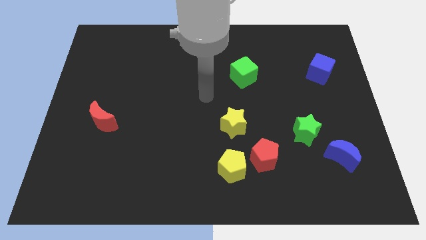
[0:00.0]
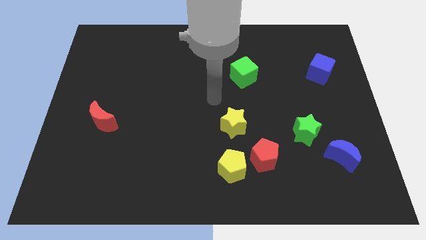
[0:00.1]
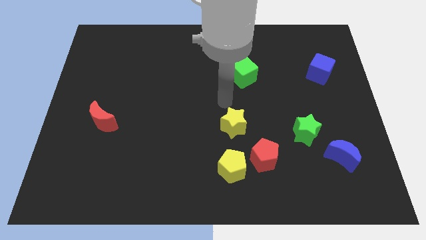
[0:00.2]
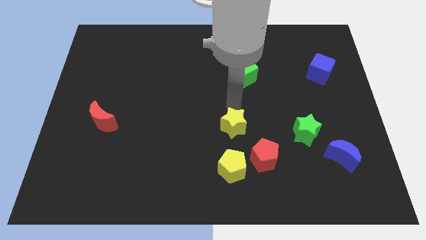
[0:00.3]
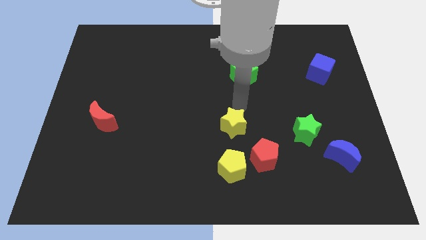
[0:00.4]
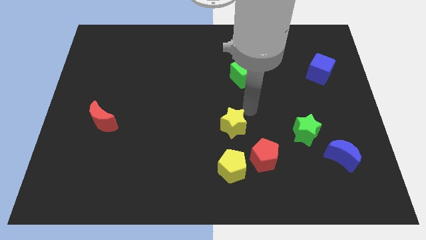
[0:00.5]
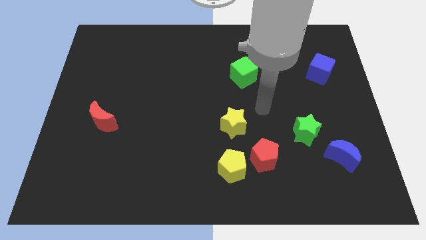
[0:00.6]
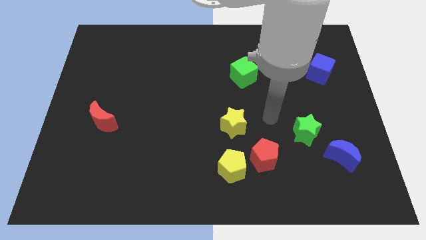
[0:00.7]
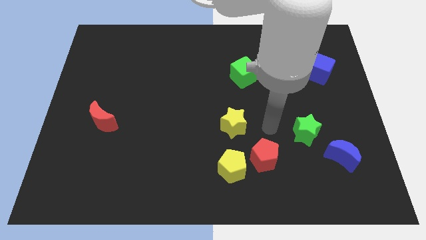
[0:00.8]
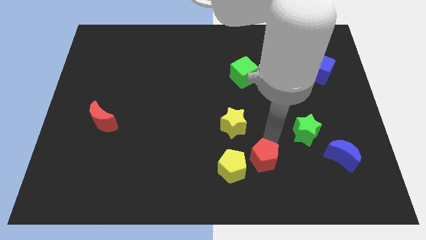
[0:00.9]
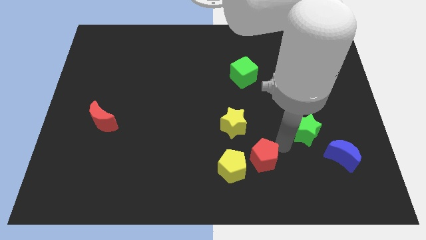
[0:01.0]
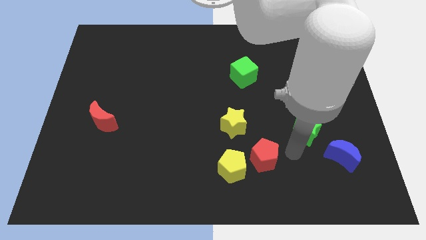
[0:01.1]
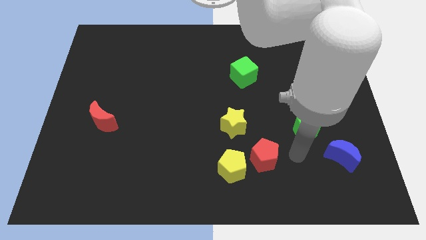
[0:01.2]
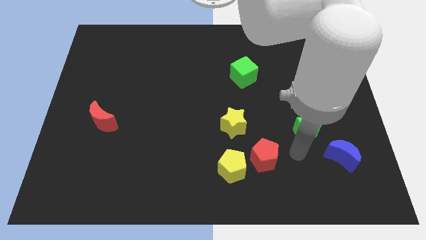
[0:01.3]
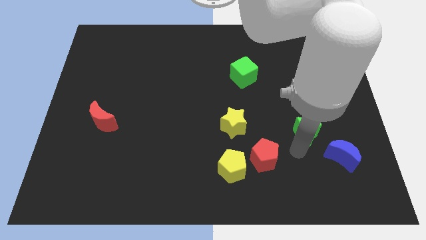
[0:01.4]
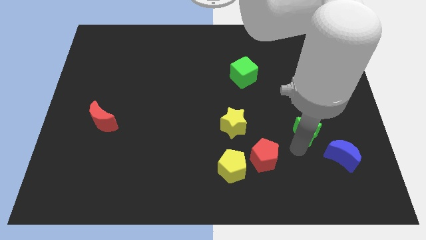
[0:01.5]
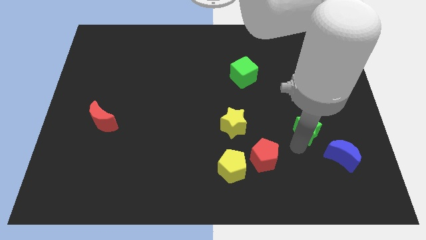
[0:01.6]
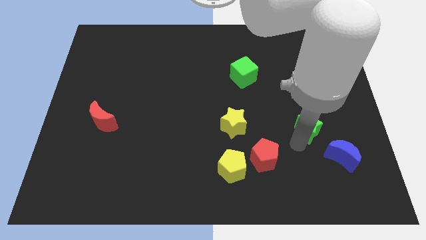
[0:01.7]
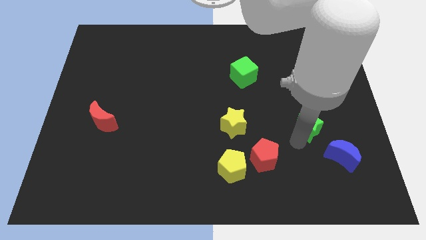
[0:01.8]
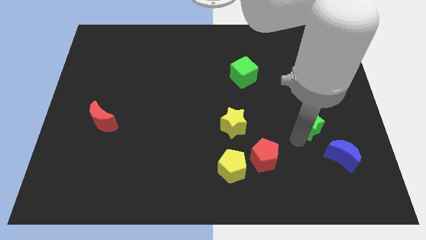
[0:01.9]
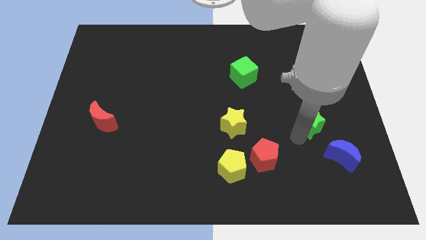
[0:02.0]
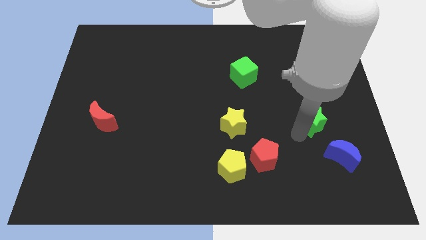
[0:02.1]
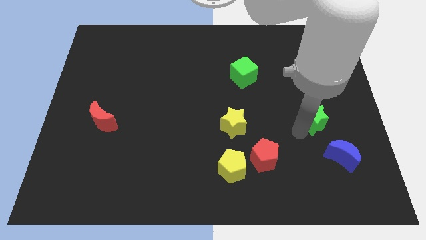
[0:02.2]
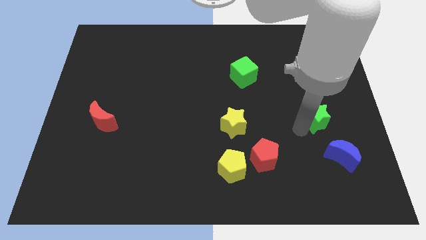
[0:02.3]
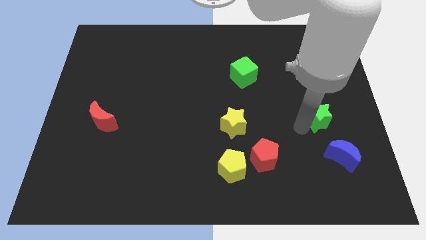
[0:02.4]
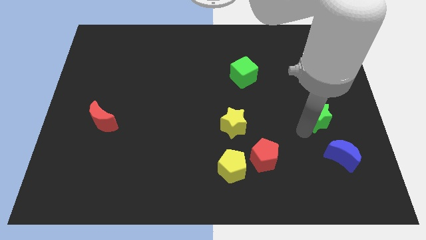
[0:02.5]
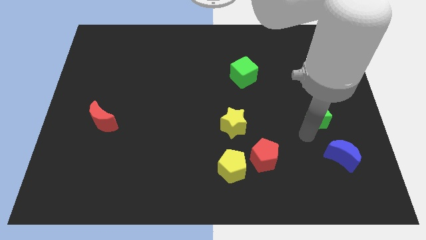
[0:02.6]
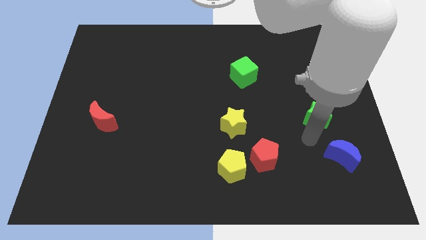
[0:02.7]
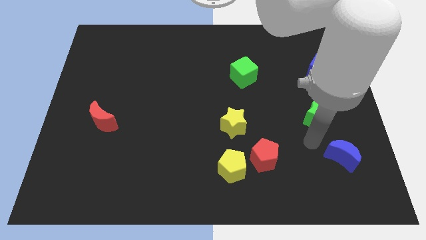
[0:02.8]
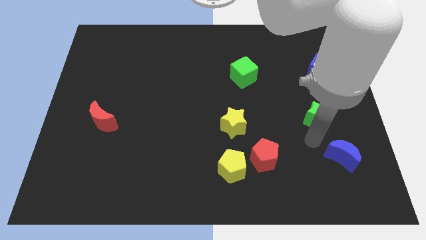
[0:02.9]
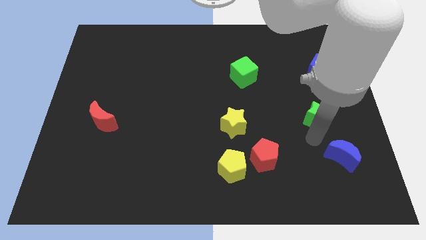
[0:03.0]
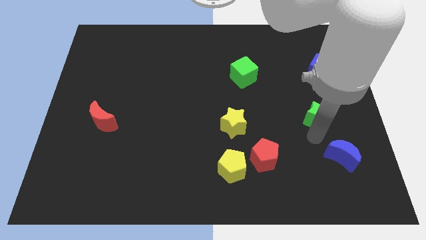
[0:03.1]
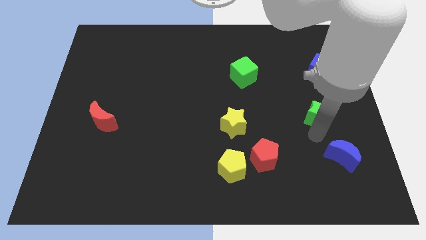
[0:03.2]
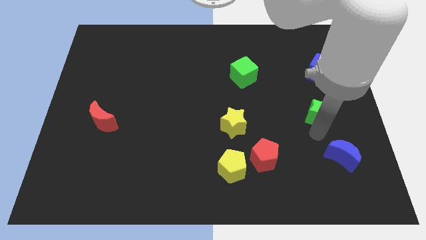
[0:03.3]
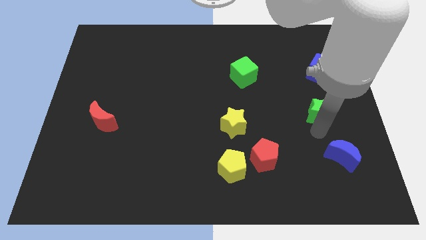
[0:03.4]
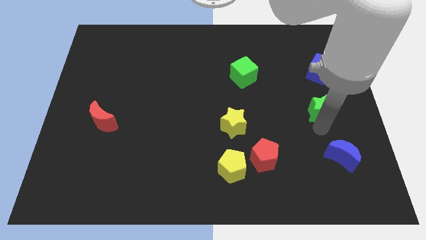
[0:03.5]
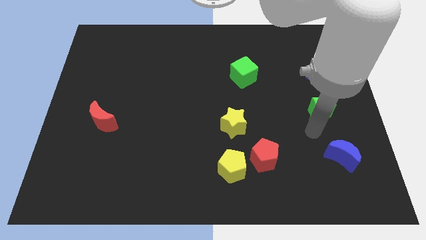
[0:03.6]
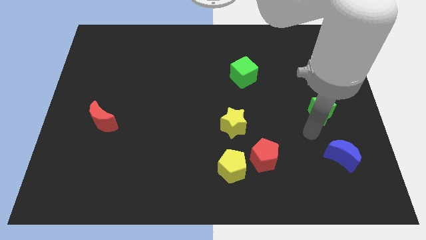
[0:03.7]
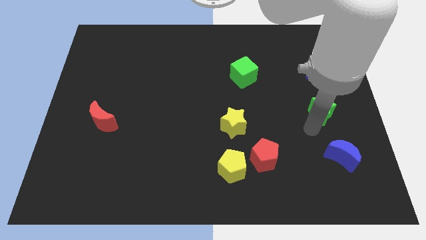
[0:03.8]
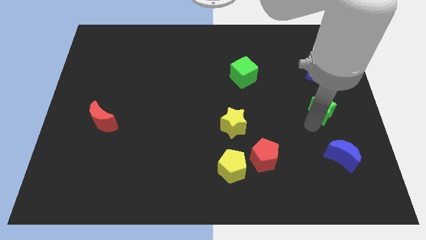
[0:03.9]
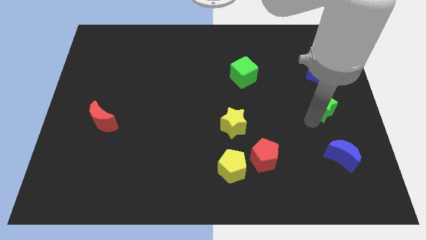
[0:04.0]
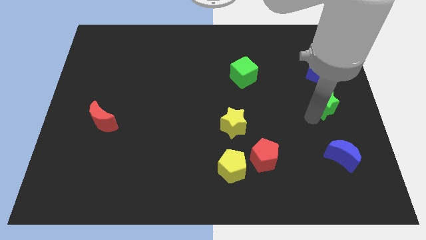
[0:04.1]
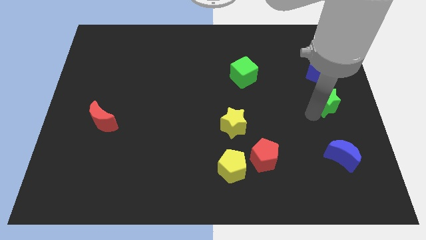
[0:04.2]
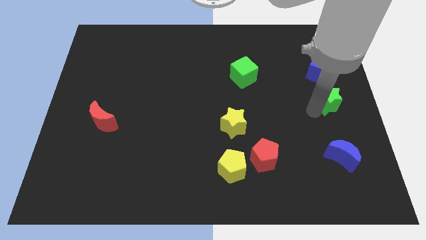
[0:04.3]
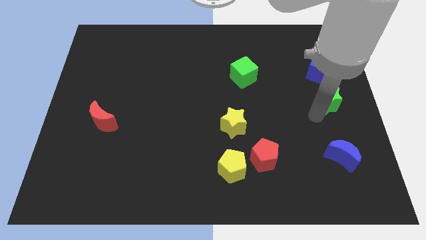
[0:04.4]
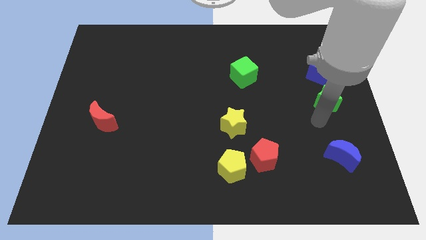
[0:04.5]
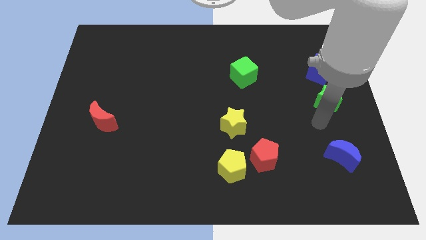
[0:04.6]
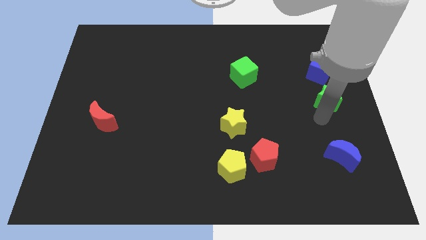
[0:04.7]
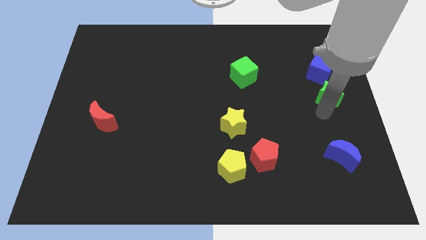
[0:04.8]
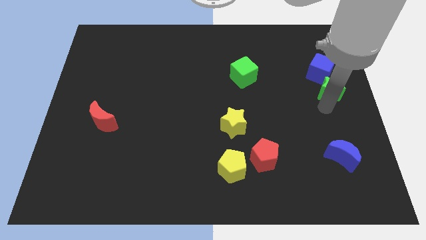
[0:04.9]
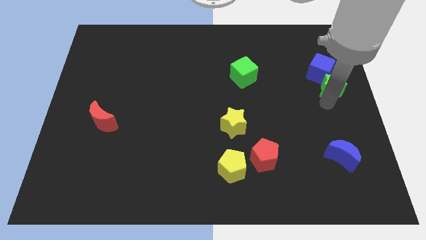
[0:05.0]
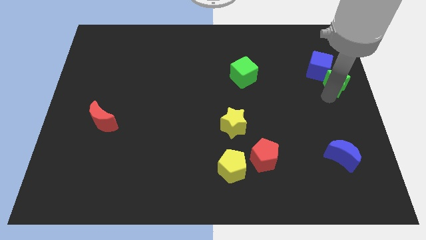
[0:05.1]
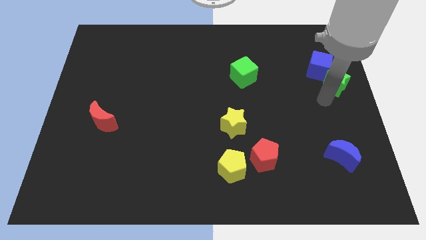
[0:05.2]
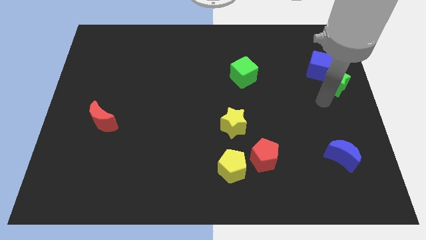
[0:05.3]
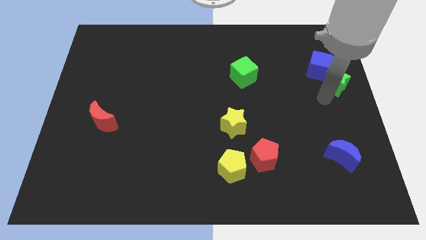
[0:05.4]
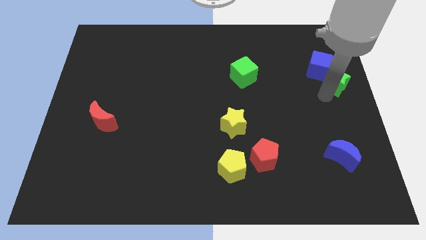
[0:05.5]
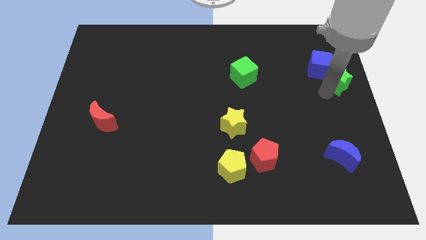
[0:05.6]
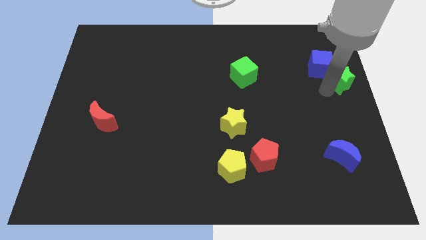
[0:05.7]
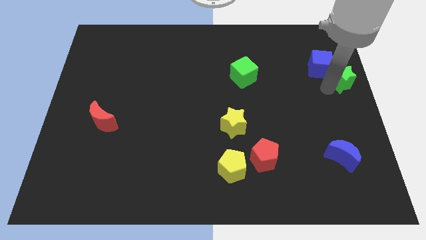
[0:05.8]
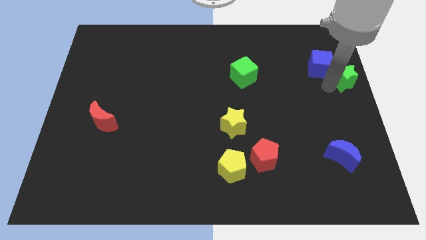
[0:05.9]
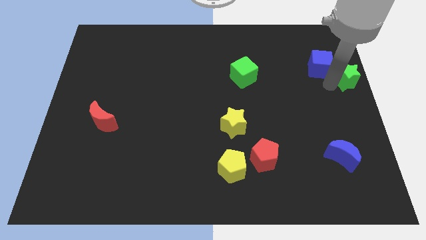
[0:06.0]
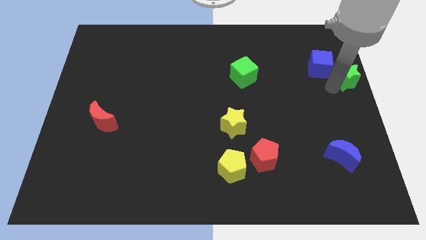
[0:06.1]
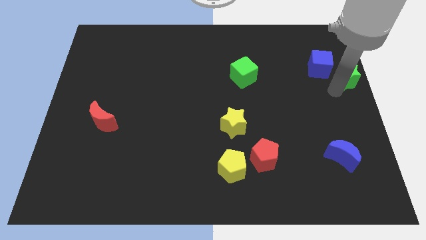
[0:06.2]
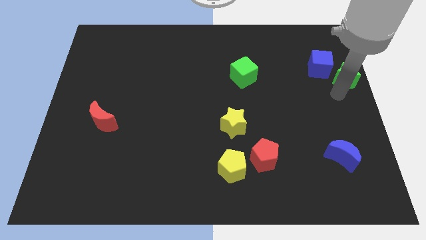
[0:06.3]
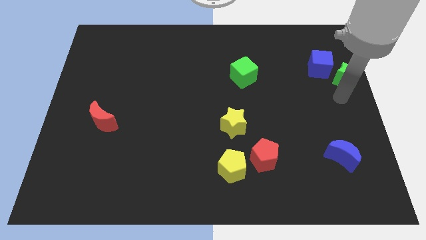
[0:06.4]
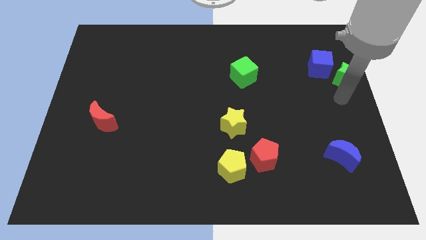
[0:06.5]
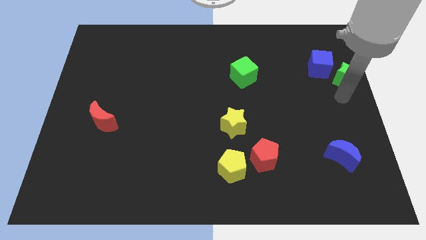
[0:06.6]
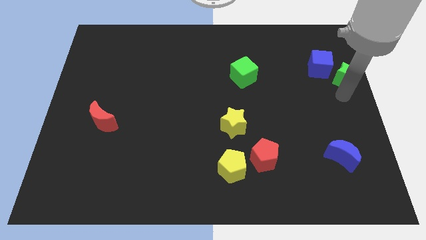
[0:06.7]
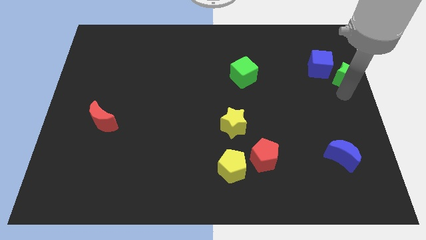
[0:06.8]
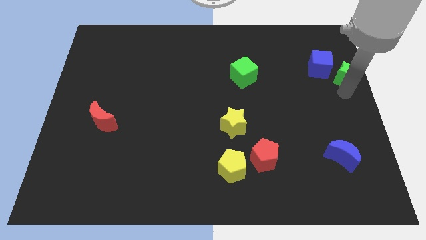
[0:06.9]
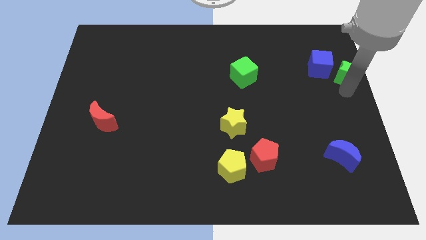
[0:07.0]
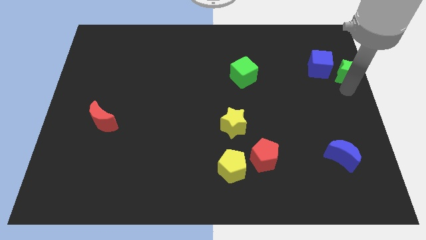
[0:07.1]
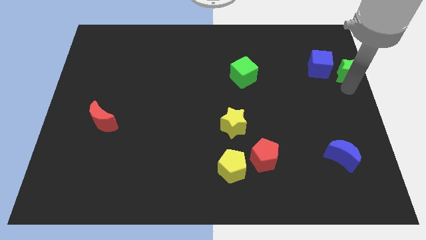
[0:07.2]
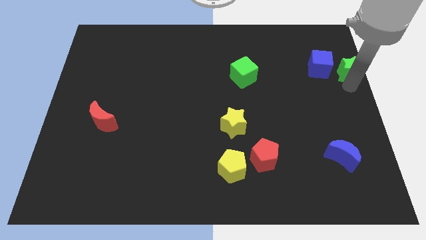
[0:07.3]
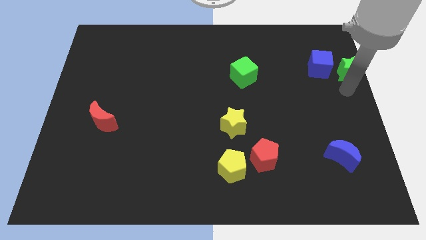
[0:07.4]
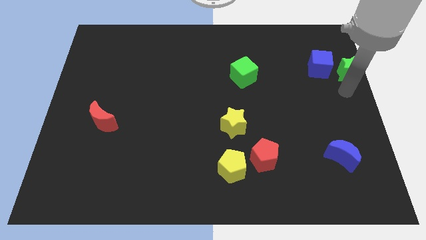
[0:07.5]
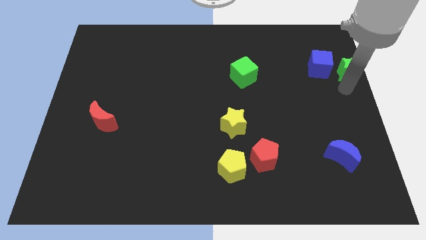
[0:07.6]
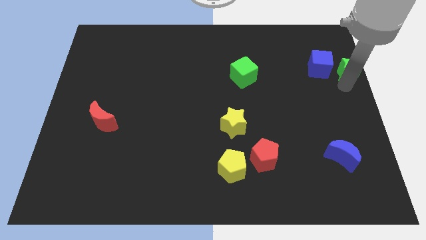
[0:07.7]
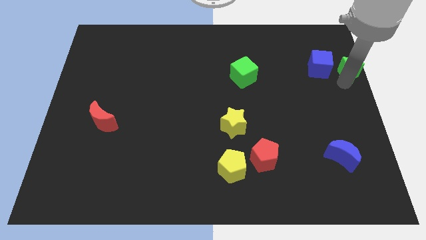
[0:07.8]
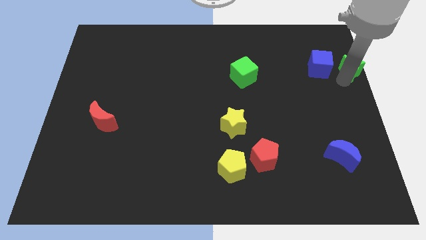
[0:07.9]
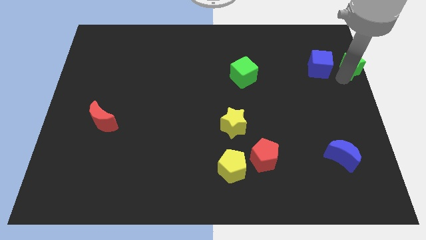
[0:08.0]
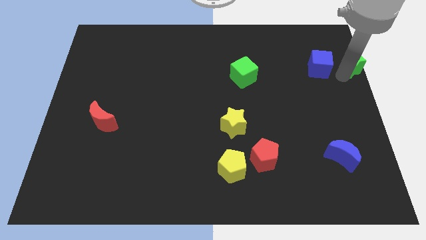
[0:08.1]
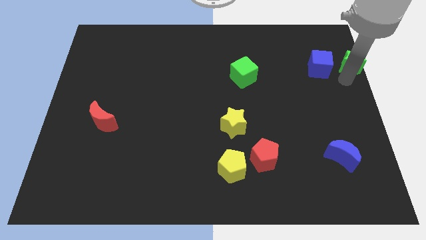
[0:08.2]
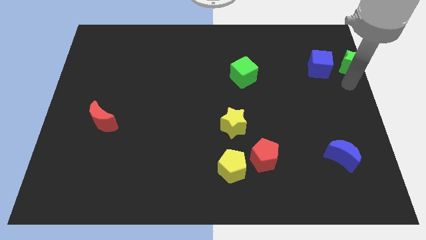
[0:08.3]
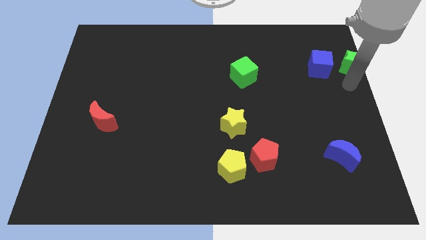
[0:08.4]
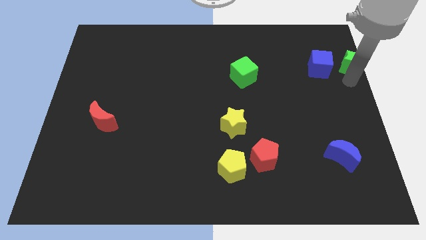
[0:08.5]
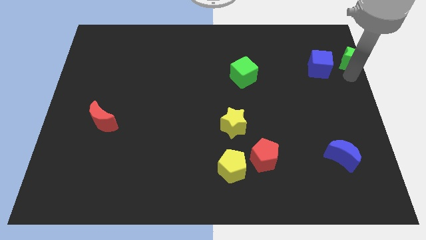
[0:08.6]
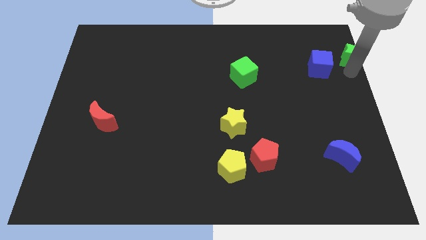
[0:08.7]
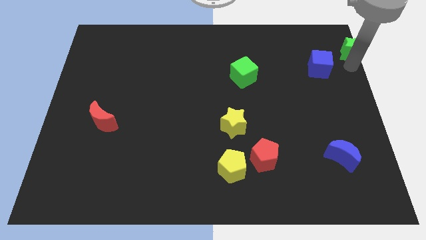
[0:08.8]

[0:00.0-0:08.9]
slide the green star to the top right corner
